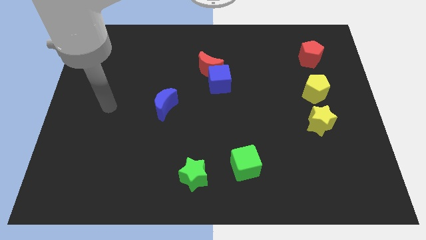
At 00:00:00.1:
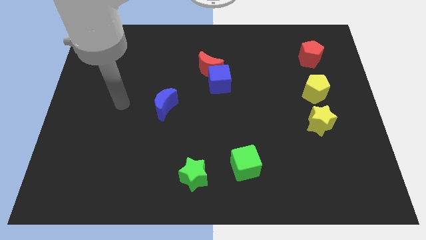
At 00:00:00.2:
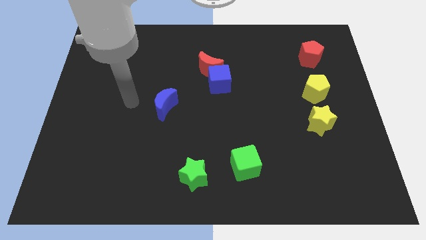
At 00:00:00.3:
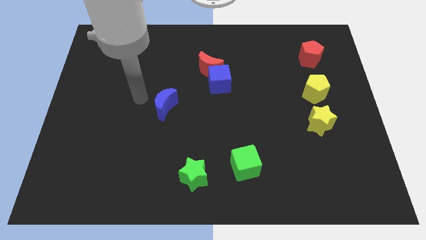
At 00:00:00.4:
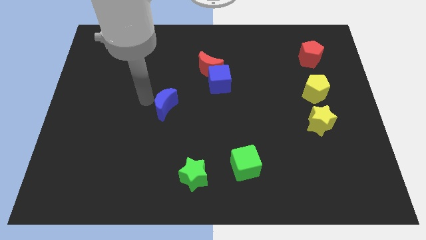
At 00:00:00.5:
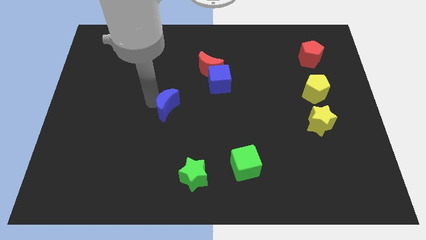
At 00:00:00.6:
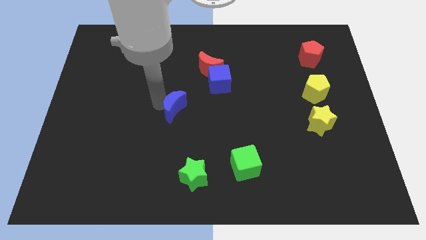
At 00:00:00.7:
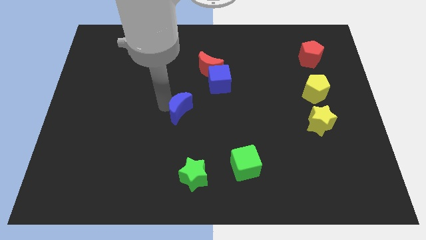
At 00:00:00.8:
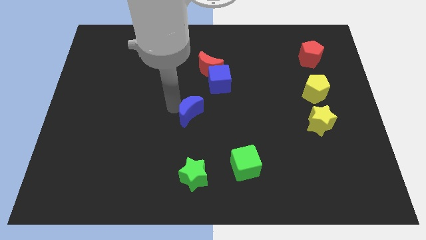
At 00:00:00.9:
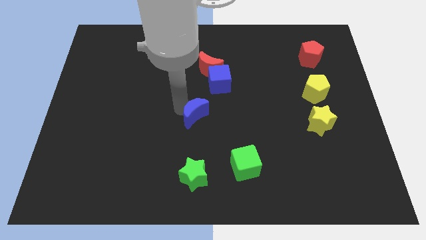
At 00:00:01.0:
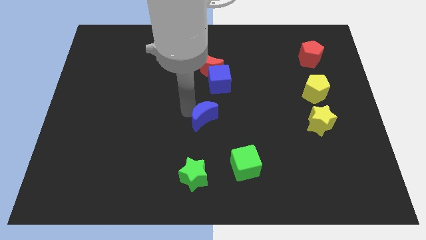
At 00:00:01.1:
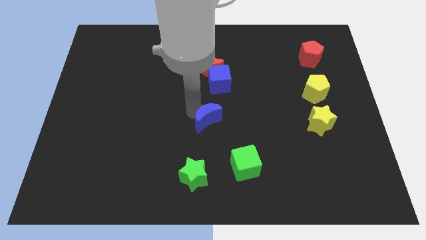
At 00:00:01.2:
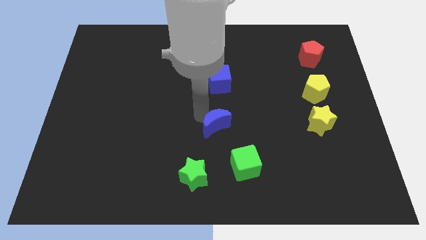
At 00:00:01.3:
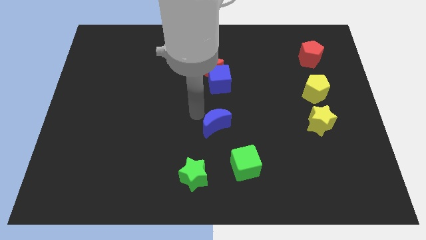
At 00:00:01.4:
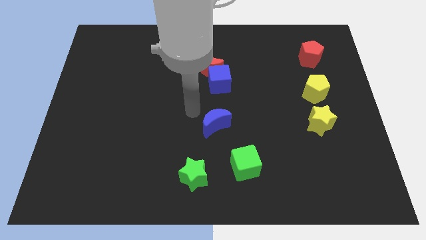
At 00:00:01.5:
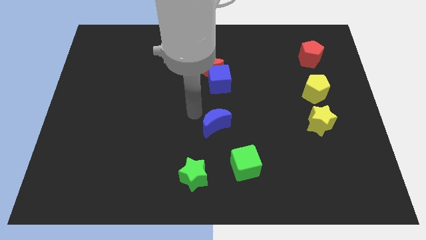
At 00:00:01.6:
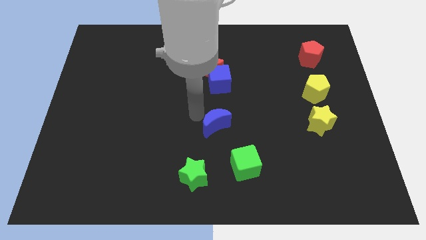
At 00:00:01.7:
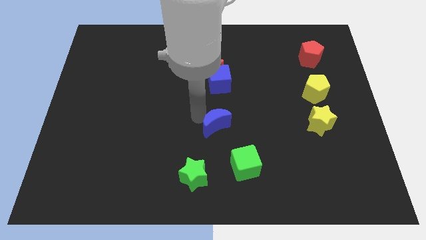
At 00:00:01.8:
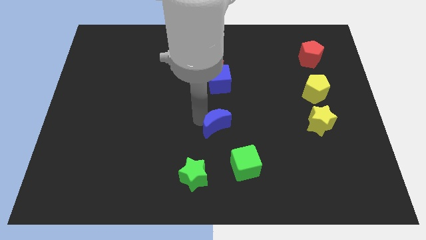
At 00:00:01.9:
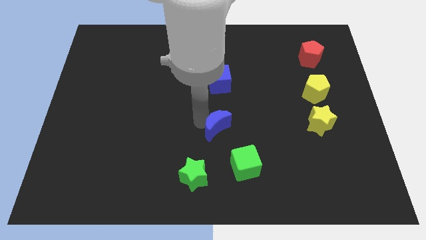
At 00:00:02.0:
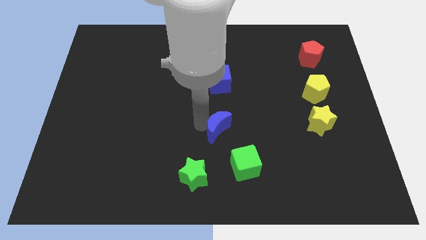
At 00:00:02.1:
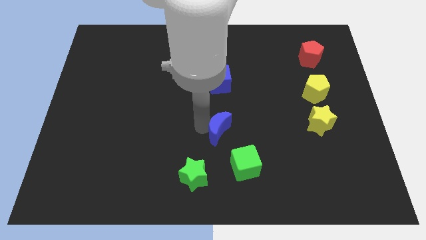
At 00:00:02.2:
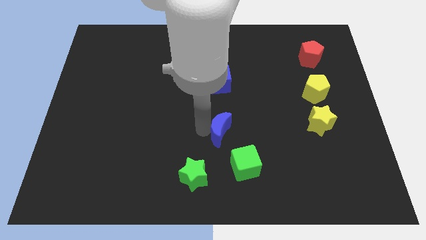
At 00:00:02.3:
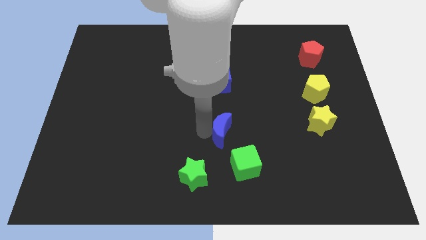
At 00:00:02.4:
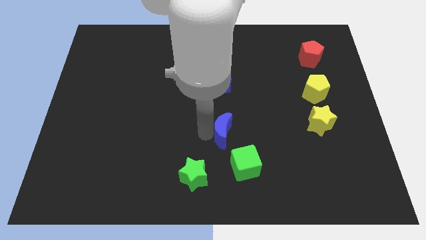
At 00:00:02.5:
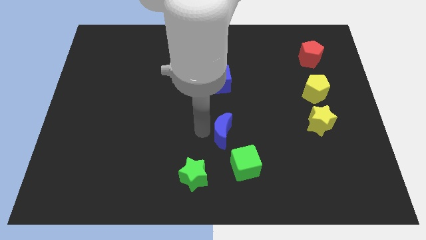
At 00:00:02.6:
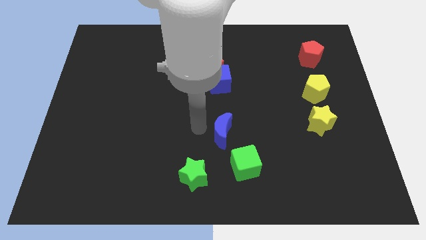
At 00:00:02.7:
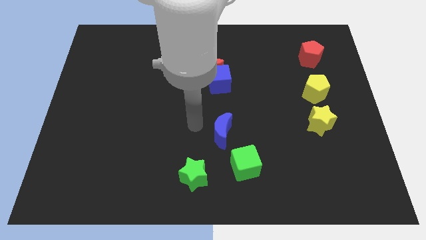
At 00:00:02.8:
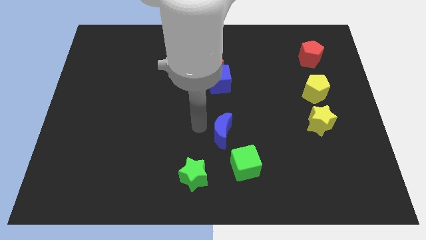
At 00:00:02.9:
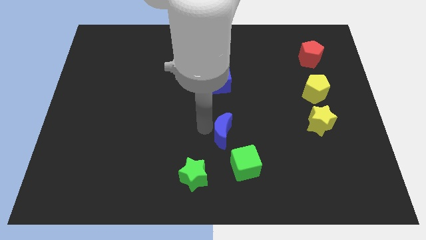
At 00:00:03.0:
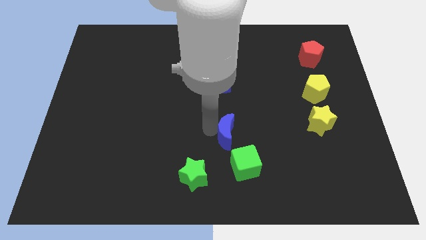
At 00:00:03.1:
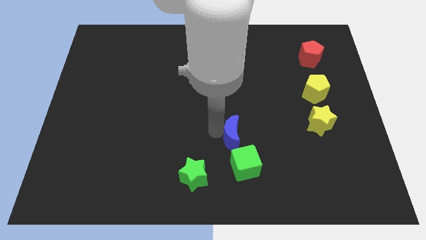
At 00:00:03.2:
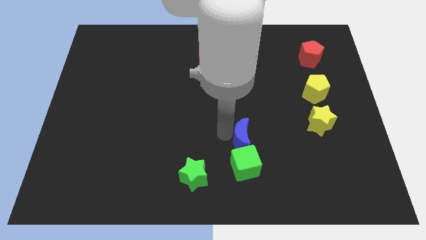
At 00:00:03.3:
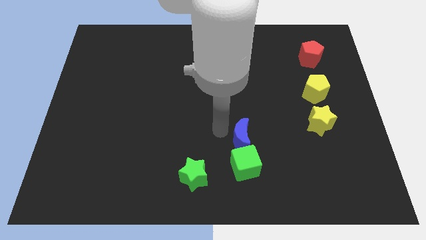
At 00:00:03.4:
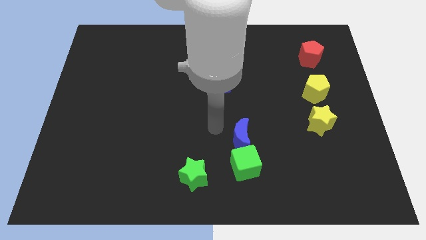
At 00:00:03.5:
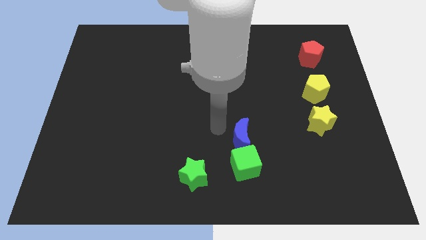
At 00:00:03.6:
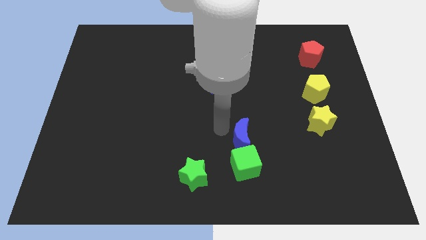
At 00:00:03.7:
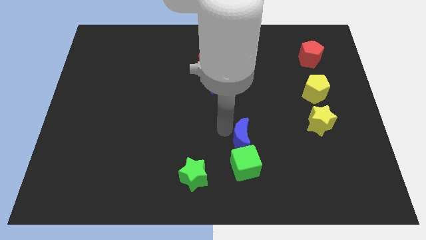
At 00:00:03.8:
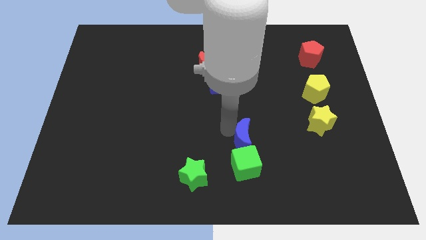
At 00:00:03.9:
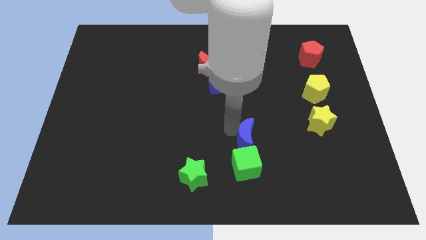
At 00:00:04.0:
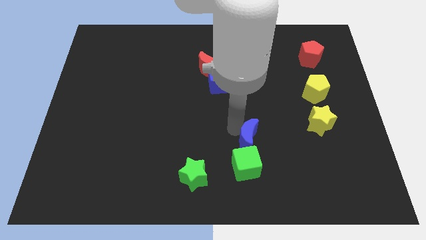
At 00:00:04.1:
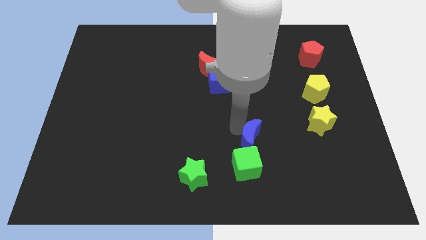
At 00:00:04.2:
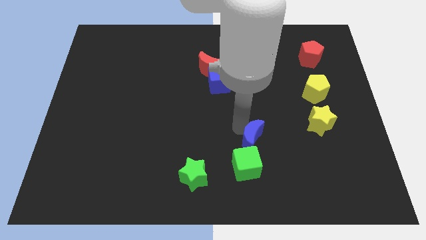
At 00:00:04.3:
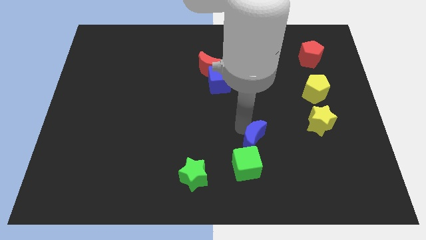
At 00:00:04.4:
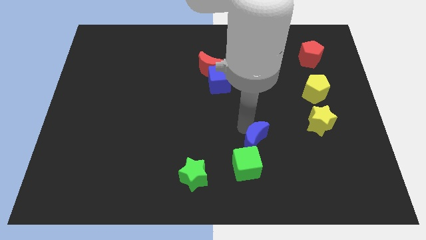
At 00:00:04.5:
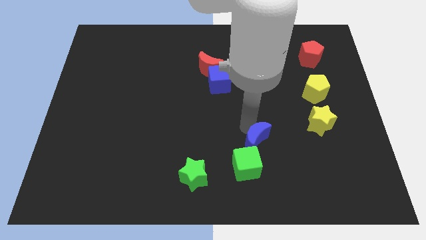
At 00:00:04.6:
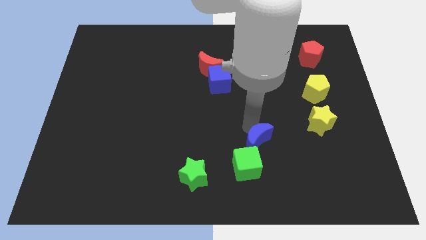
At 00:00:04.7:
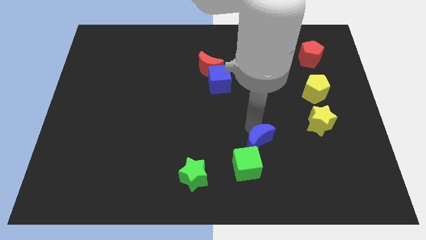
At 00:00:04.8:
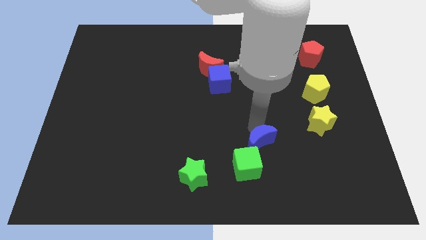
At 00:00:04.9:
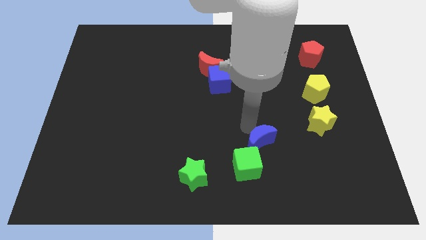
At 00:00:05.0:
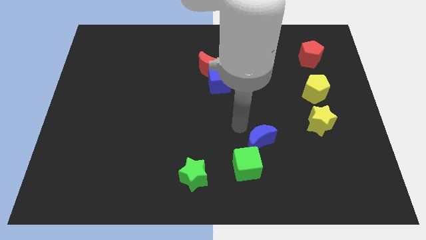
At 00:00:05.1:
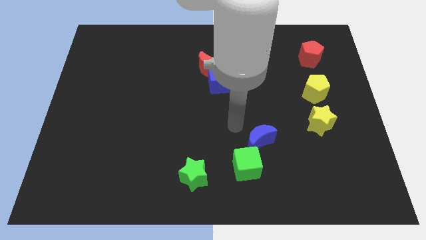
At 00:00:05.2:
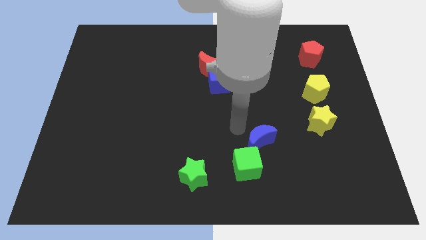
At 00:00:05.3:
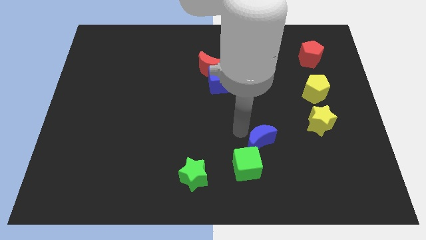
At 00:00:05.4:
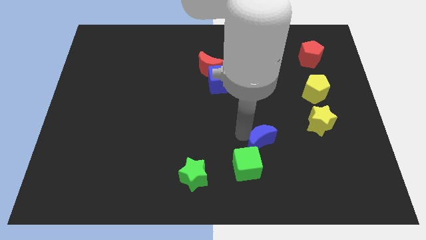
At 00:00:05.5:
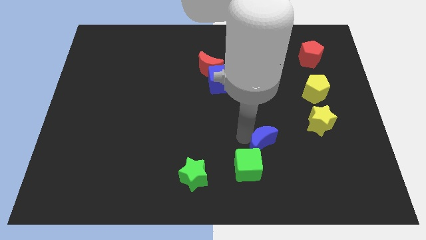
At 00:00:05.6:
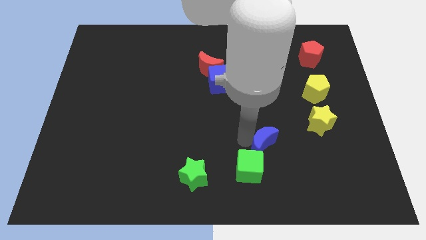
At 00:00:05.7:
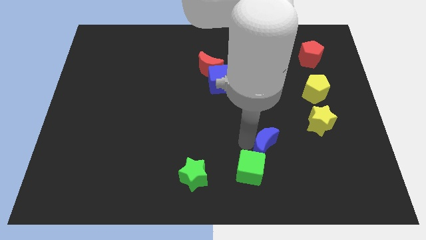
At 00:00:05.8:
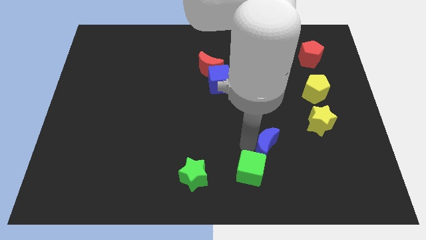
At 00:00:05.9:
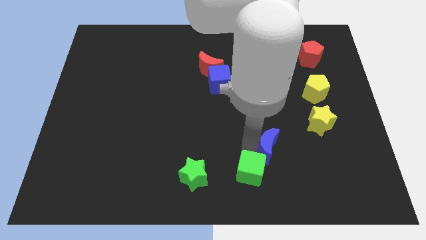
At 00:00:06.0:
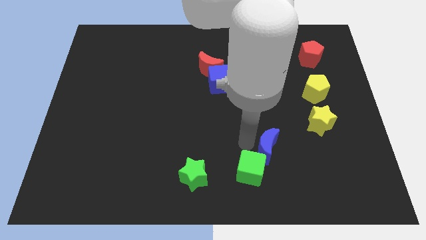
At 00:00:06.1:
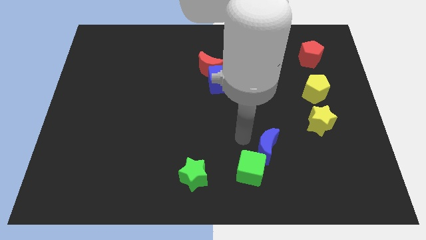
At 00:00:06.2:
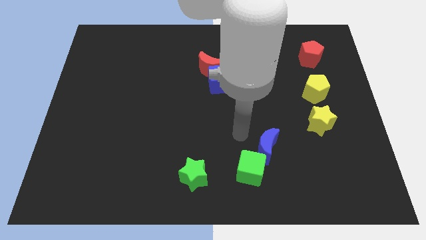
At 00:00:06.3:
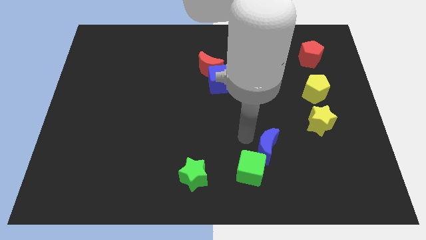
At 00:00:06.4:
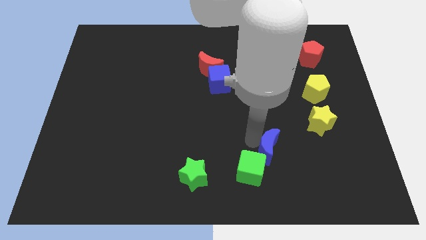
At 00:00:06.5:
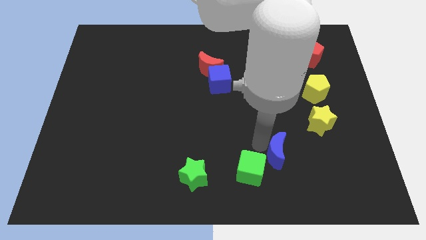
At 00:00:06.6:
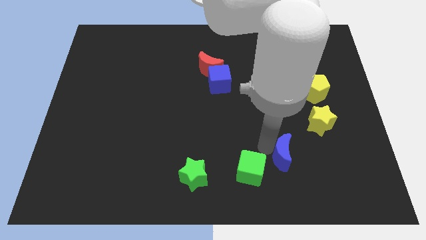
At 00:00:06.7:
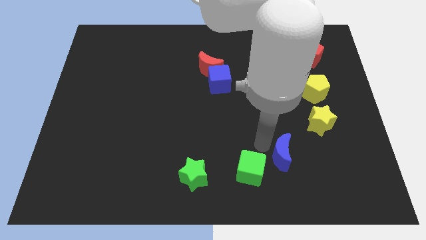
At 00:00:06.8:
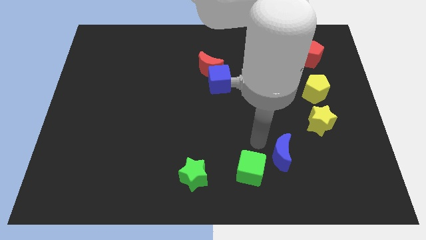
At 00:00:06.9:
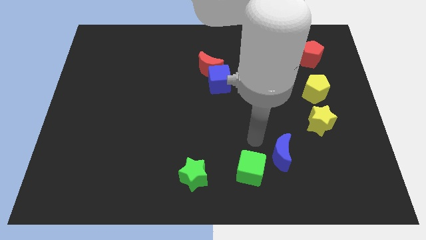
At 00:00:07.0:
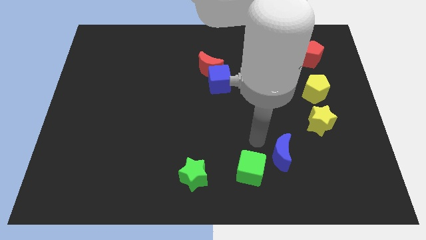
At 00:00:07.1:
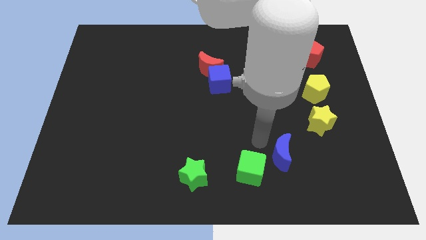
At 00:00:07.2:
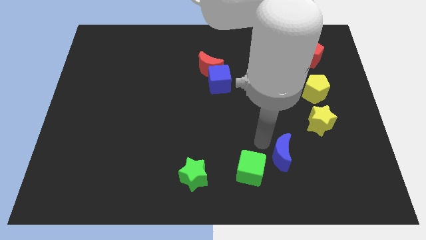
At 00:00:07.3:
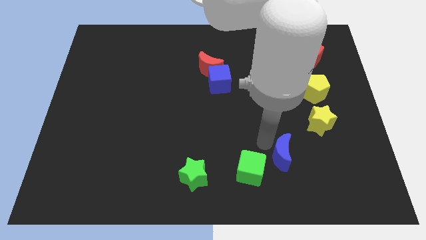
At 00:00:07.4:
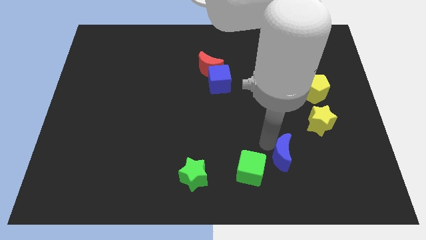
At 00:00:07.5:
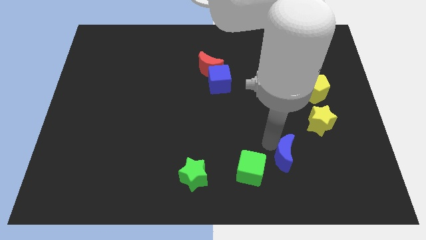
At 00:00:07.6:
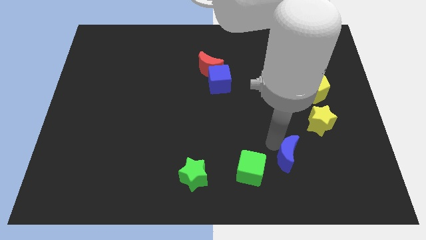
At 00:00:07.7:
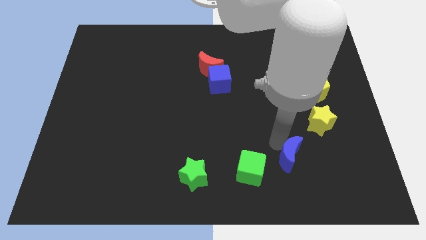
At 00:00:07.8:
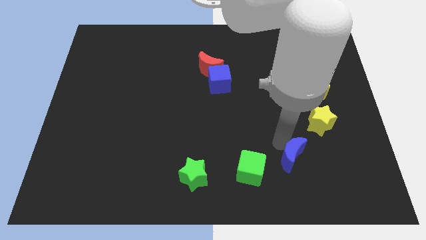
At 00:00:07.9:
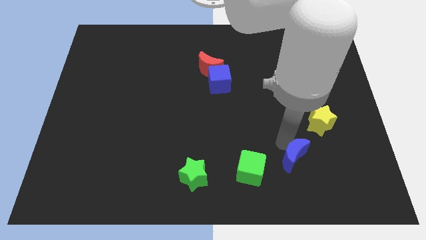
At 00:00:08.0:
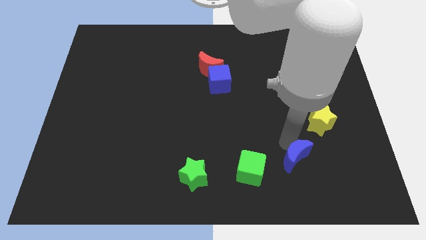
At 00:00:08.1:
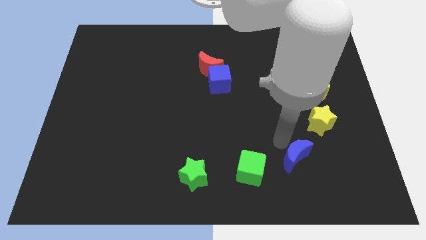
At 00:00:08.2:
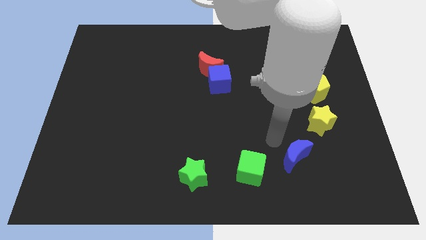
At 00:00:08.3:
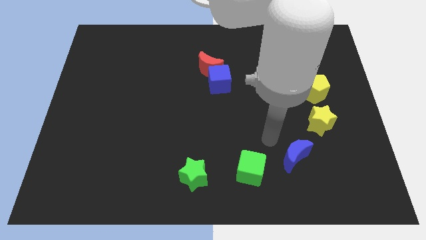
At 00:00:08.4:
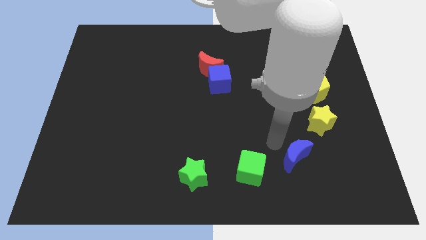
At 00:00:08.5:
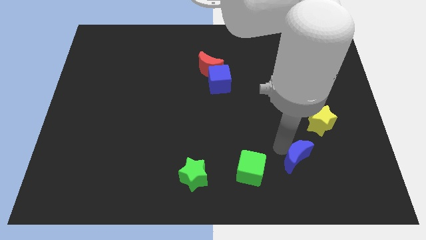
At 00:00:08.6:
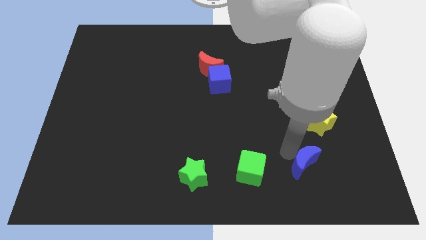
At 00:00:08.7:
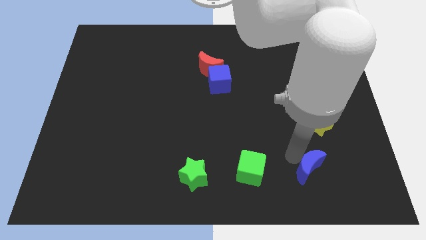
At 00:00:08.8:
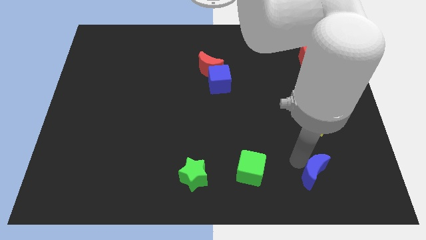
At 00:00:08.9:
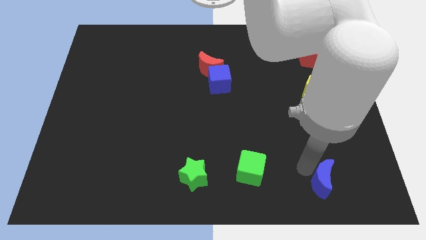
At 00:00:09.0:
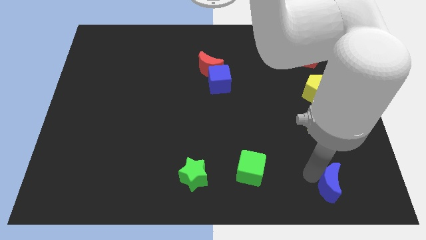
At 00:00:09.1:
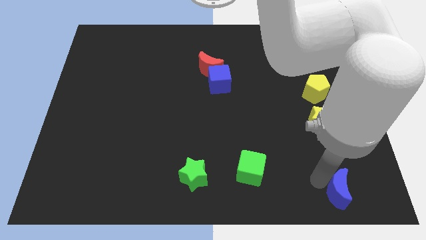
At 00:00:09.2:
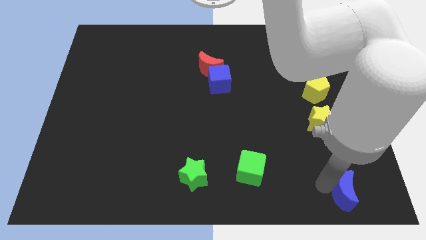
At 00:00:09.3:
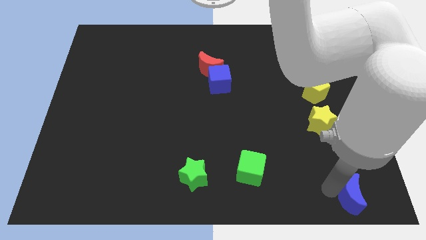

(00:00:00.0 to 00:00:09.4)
push the blue moon to the bottom right
